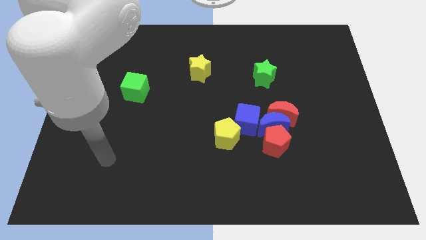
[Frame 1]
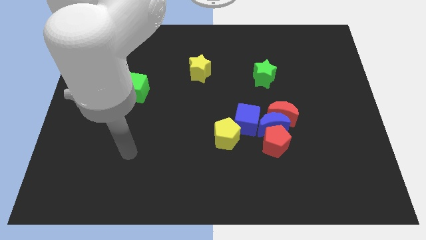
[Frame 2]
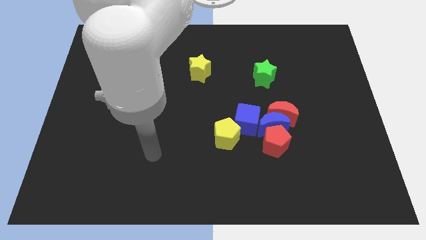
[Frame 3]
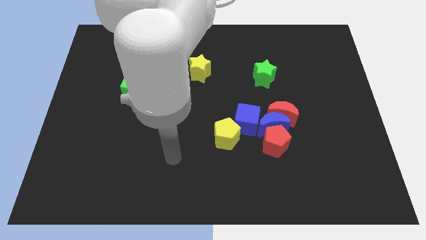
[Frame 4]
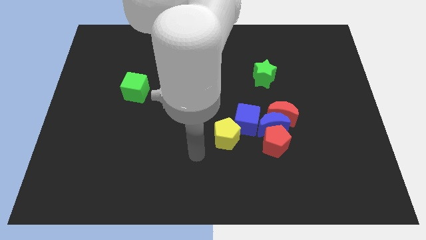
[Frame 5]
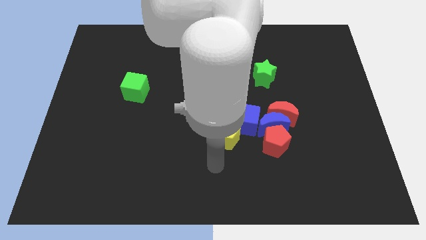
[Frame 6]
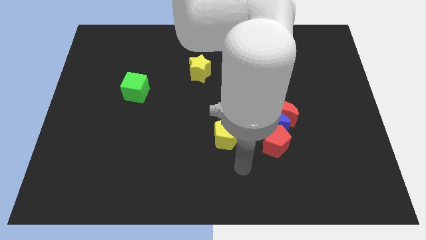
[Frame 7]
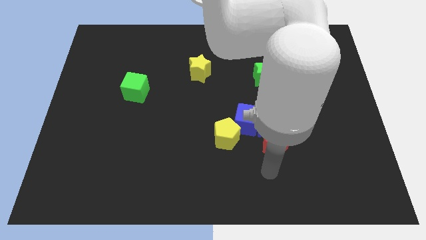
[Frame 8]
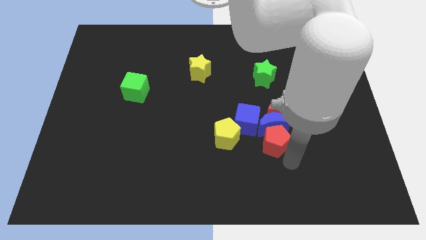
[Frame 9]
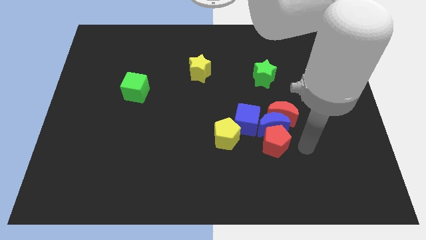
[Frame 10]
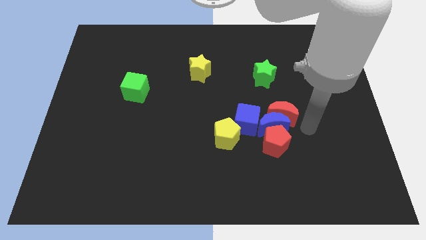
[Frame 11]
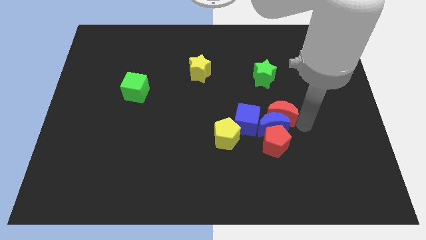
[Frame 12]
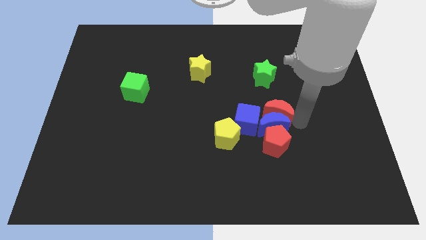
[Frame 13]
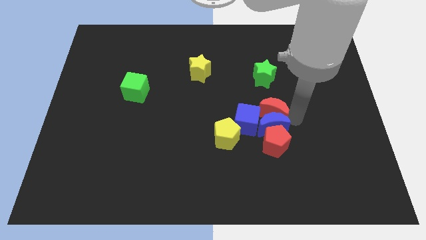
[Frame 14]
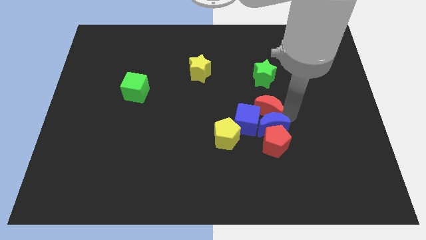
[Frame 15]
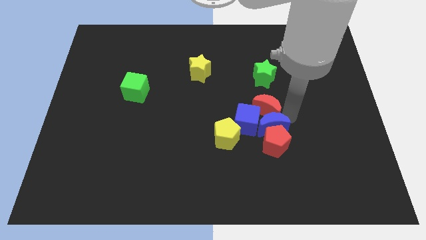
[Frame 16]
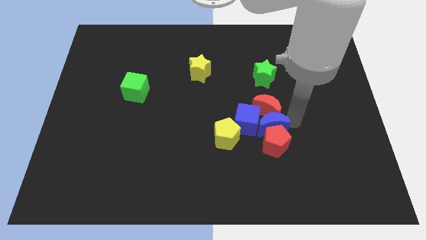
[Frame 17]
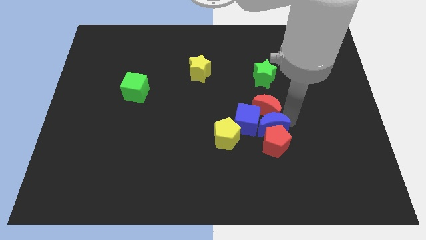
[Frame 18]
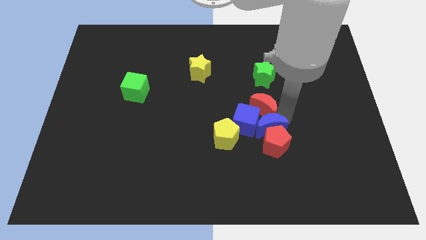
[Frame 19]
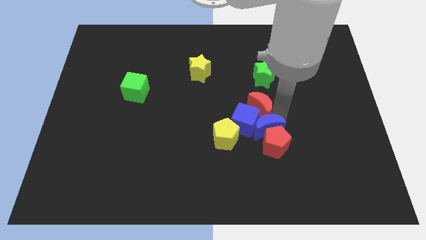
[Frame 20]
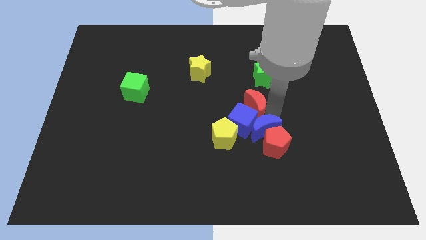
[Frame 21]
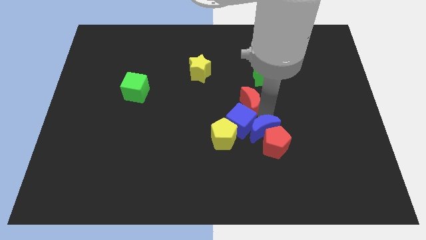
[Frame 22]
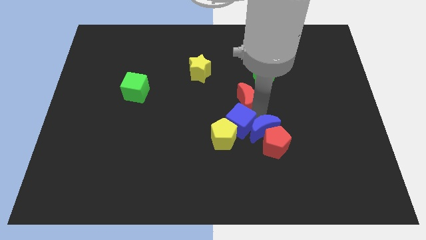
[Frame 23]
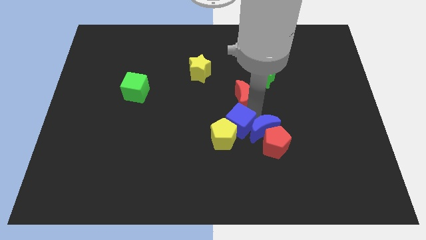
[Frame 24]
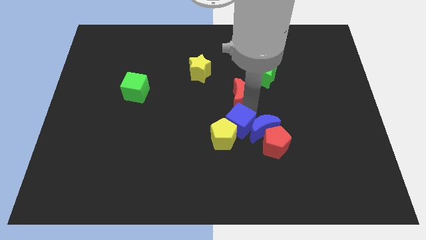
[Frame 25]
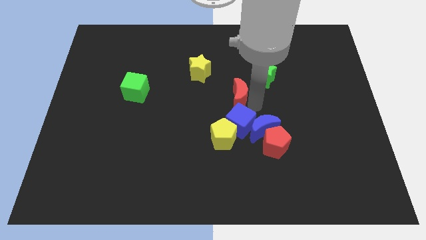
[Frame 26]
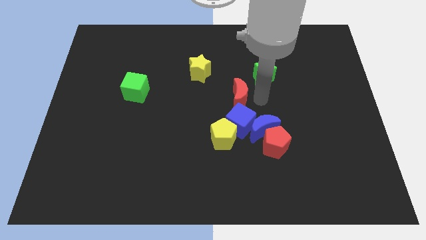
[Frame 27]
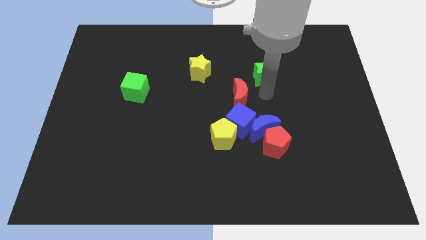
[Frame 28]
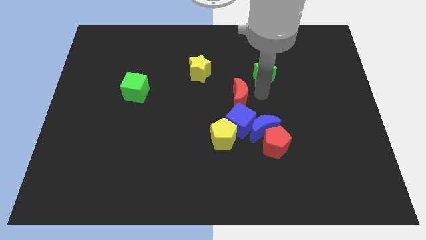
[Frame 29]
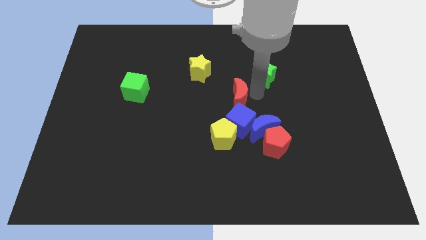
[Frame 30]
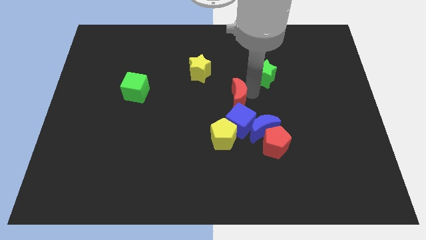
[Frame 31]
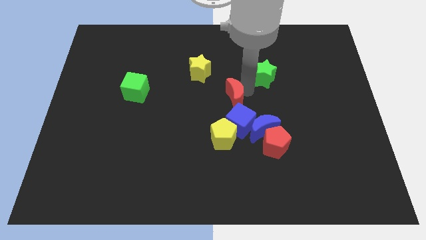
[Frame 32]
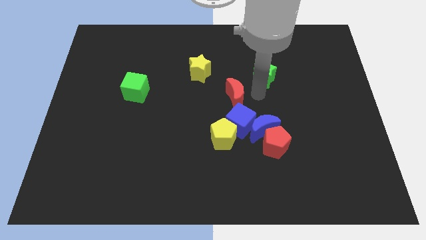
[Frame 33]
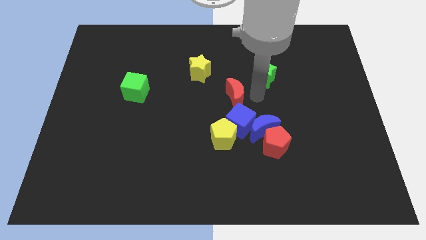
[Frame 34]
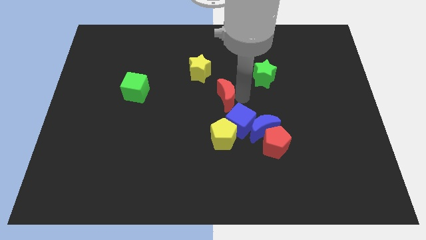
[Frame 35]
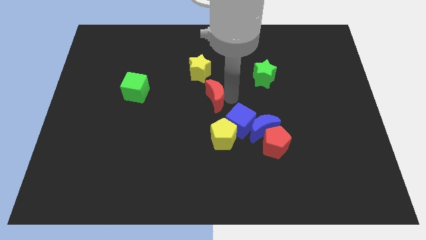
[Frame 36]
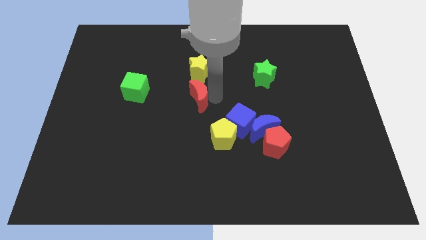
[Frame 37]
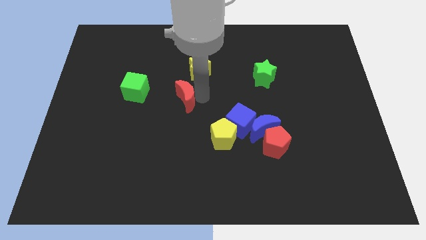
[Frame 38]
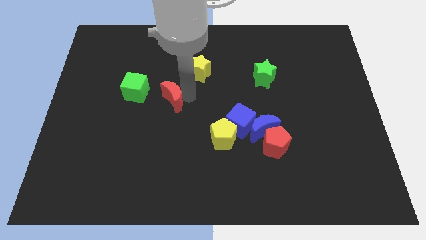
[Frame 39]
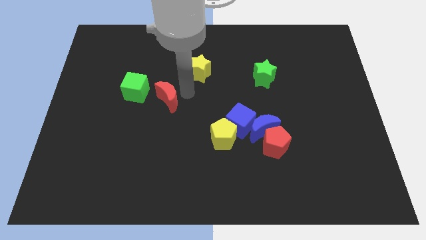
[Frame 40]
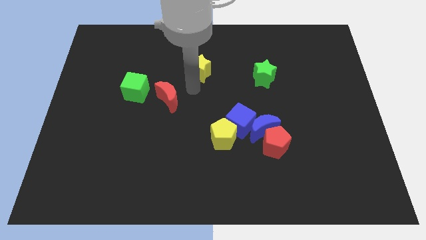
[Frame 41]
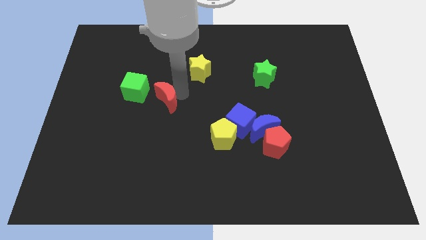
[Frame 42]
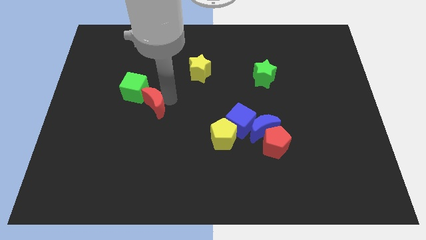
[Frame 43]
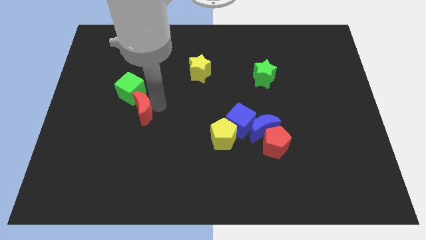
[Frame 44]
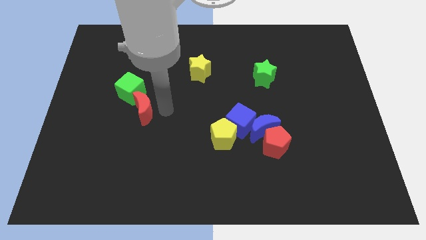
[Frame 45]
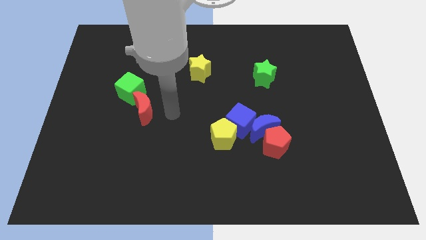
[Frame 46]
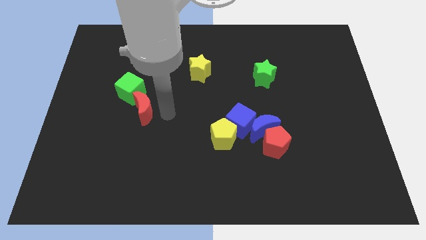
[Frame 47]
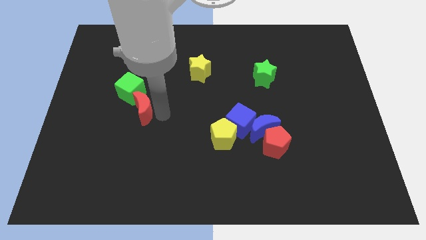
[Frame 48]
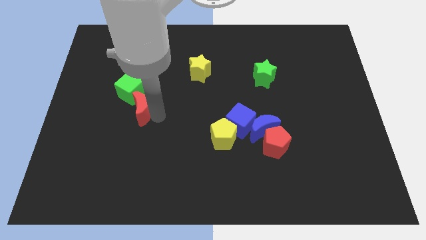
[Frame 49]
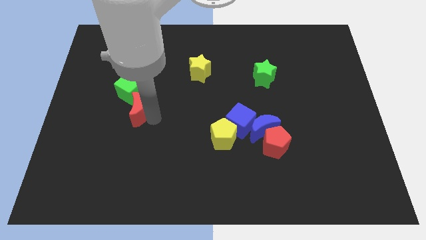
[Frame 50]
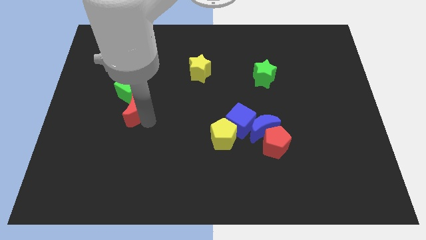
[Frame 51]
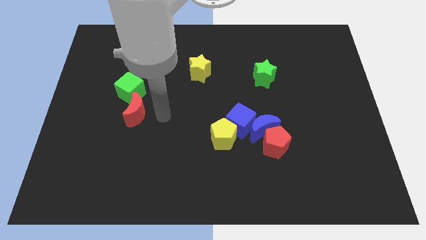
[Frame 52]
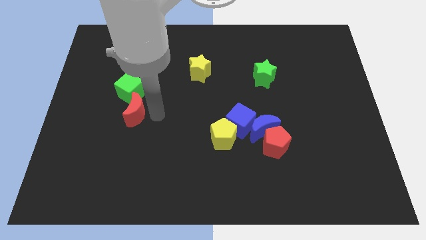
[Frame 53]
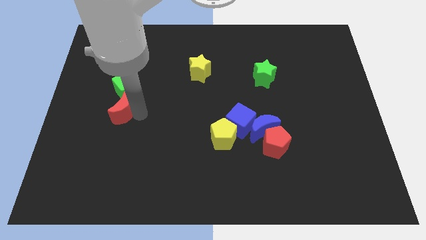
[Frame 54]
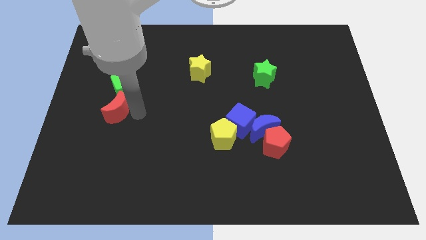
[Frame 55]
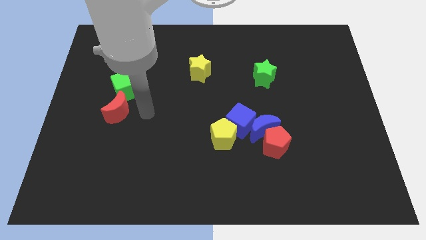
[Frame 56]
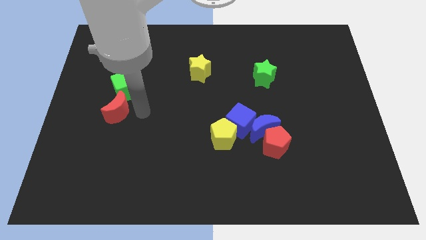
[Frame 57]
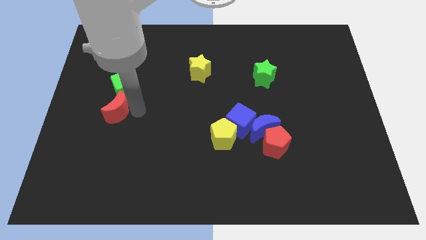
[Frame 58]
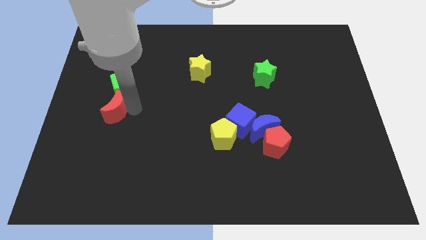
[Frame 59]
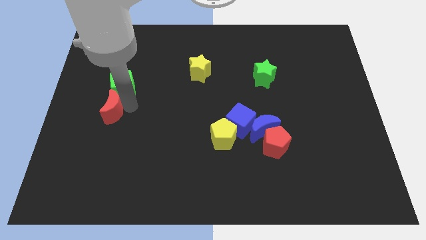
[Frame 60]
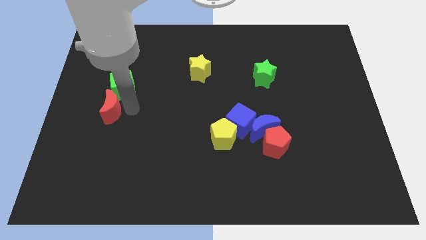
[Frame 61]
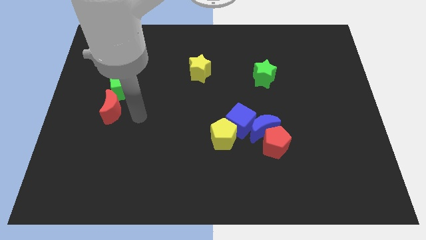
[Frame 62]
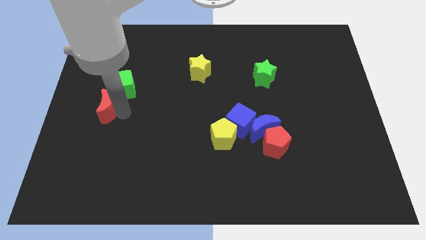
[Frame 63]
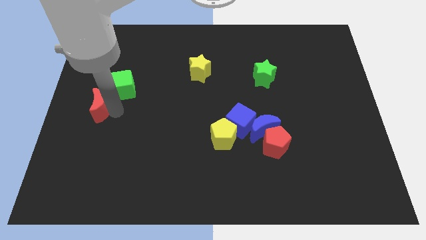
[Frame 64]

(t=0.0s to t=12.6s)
move the red moon to the left side
